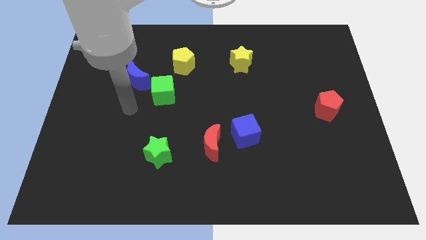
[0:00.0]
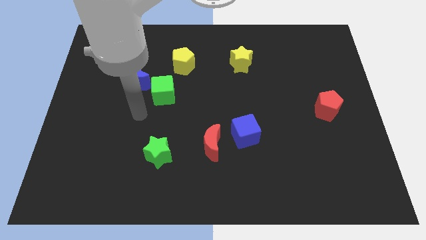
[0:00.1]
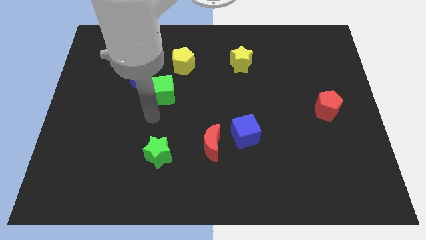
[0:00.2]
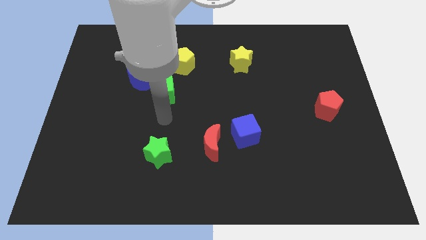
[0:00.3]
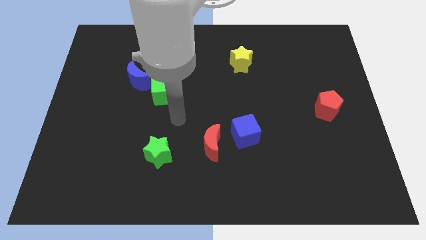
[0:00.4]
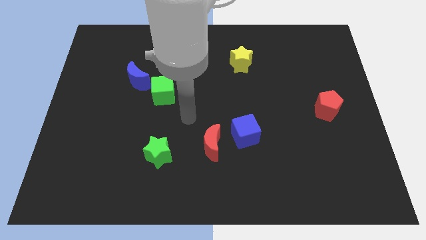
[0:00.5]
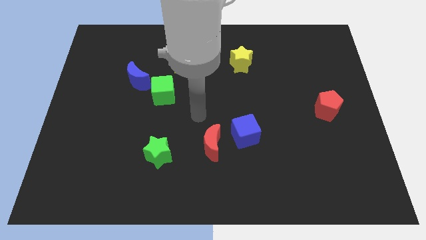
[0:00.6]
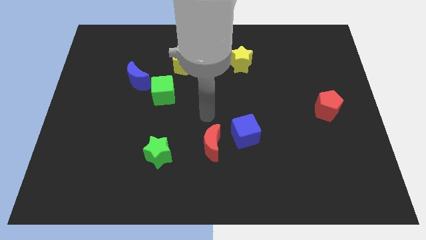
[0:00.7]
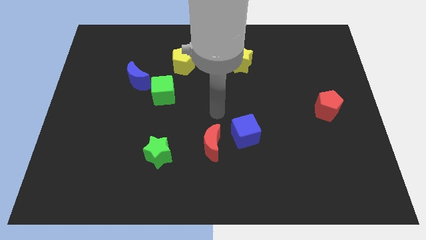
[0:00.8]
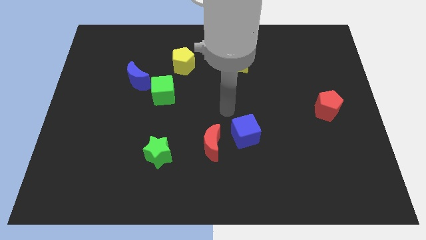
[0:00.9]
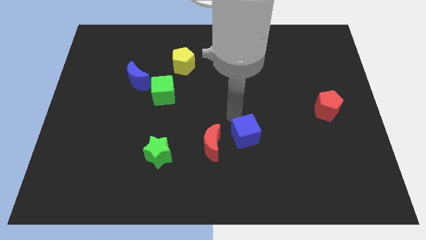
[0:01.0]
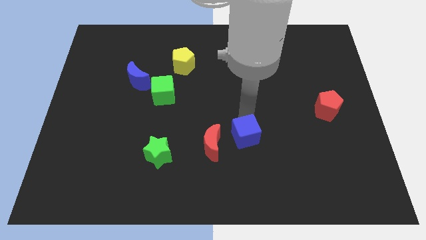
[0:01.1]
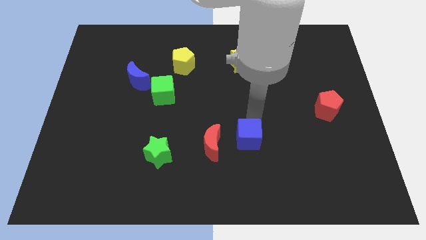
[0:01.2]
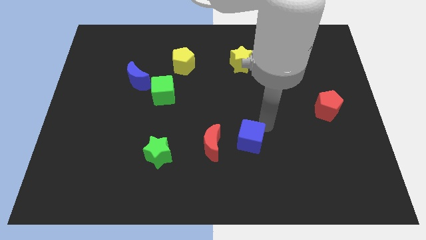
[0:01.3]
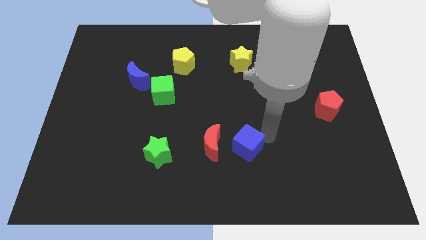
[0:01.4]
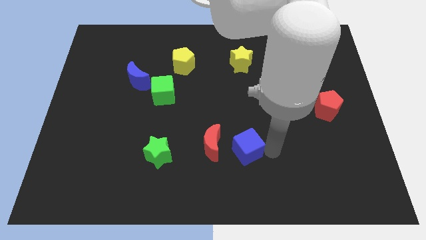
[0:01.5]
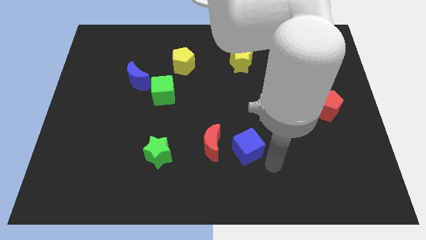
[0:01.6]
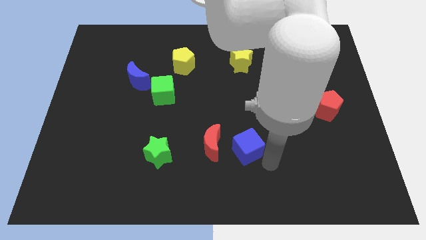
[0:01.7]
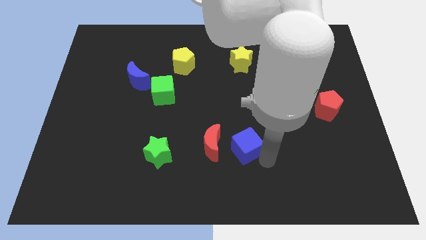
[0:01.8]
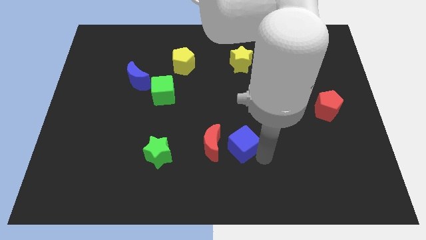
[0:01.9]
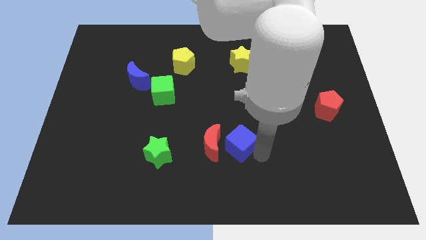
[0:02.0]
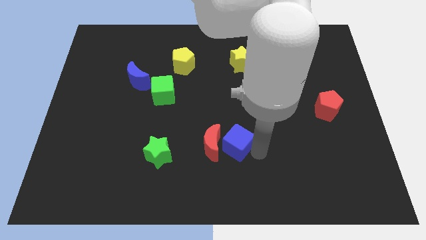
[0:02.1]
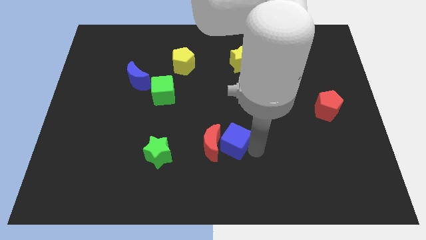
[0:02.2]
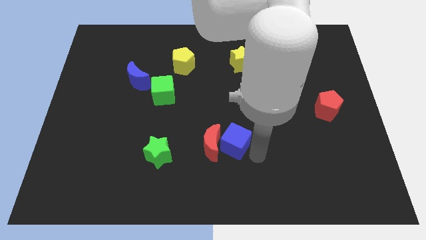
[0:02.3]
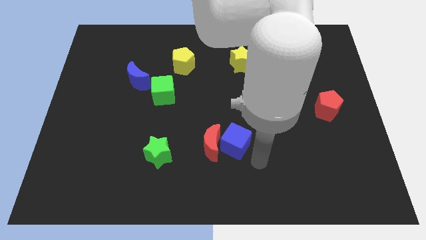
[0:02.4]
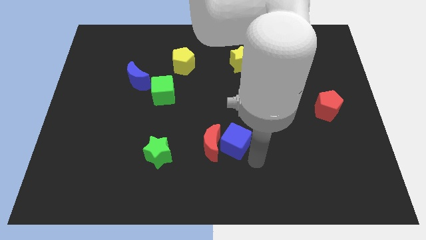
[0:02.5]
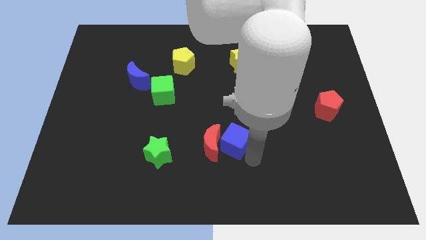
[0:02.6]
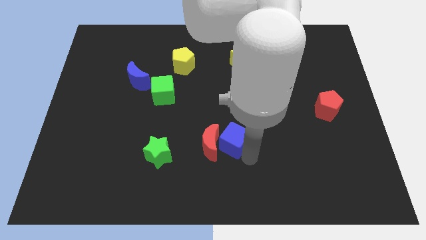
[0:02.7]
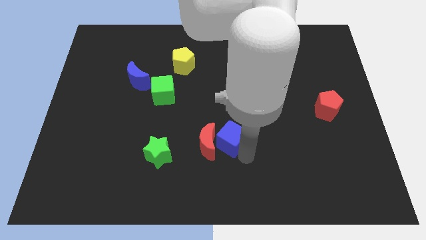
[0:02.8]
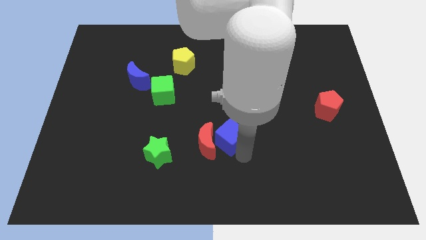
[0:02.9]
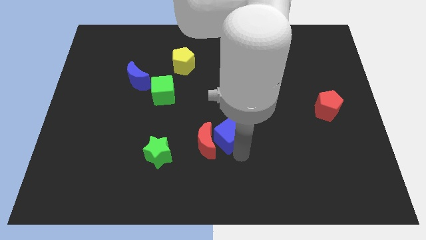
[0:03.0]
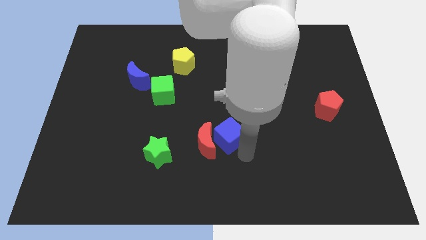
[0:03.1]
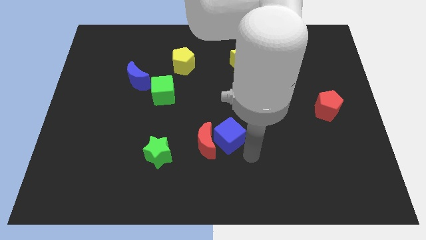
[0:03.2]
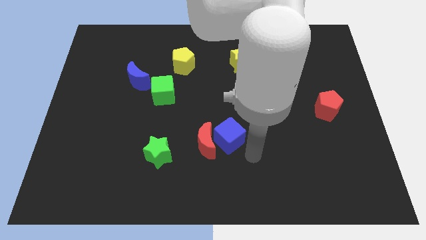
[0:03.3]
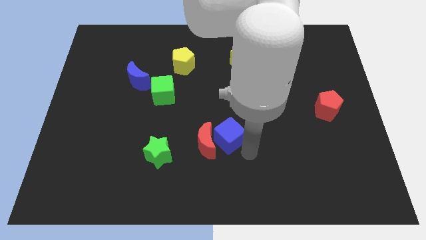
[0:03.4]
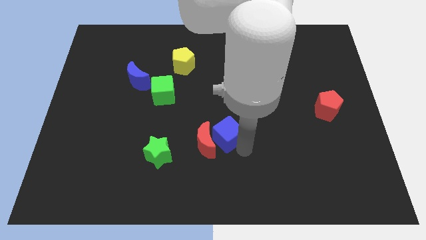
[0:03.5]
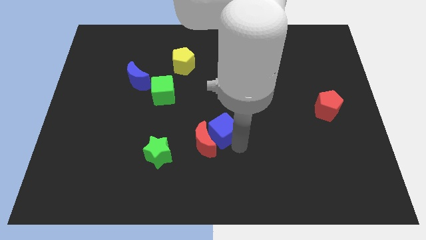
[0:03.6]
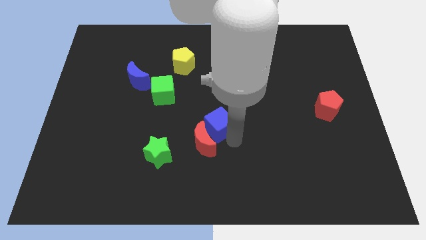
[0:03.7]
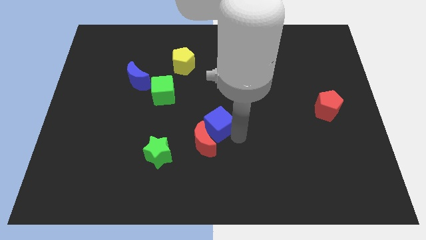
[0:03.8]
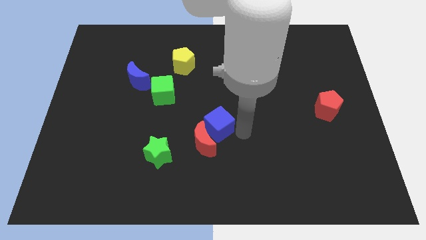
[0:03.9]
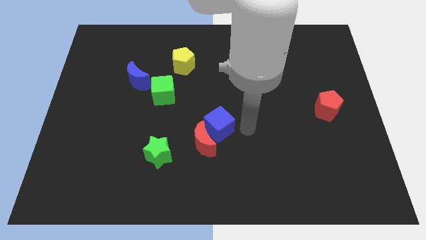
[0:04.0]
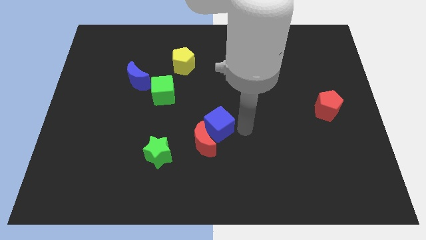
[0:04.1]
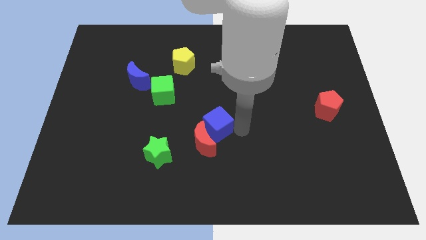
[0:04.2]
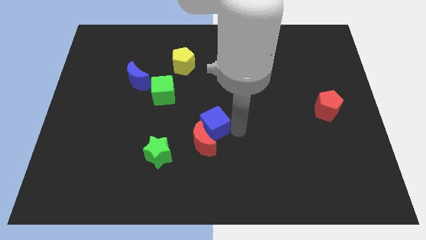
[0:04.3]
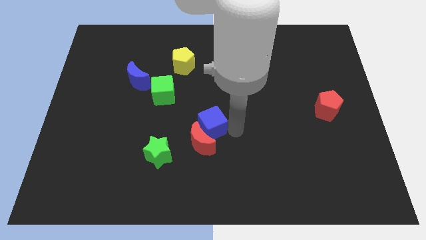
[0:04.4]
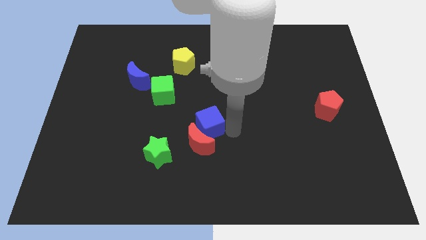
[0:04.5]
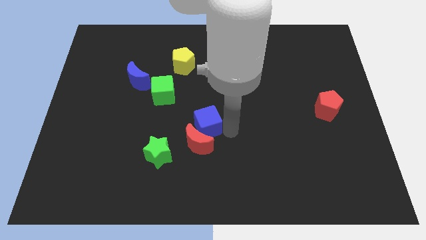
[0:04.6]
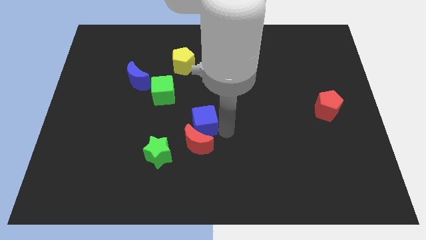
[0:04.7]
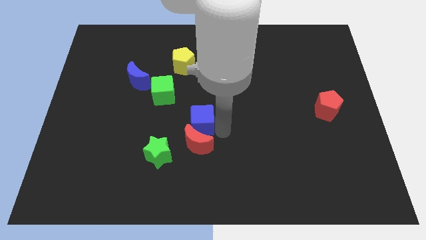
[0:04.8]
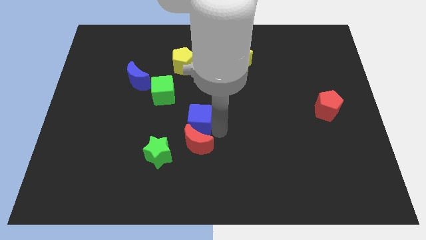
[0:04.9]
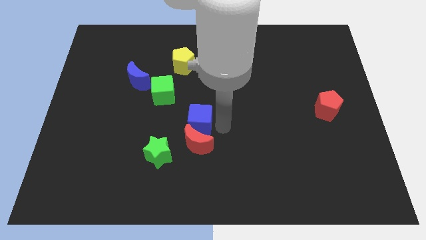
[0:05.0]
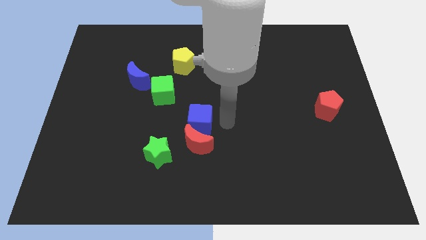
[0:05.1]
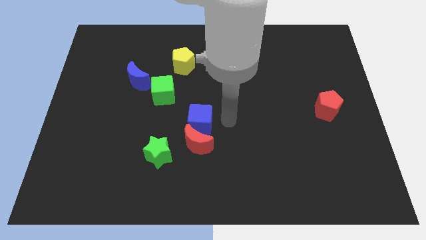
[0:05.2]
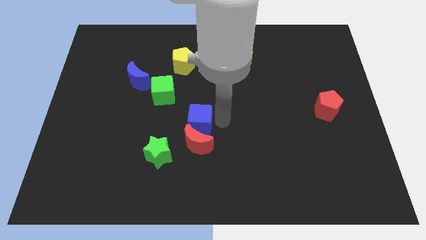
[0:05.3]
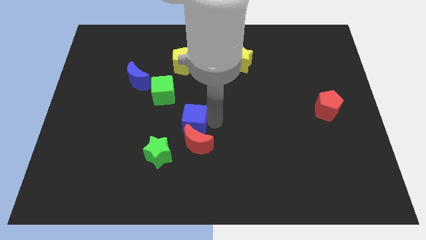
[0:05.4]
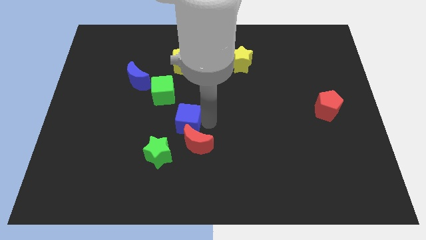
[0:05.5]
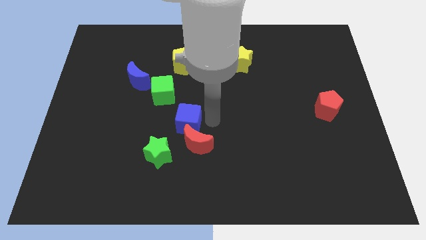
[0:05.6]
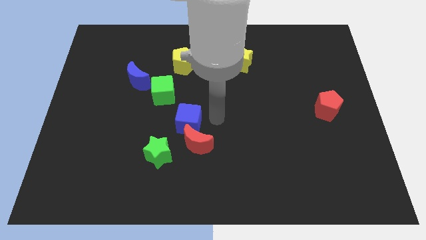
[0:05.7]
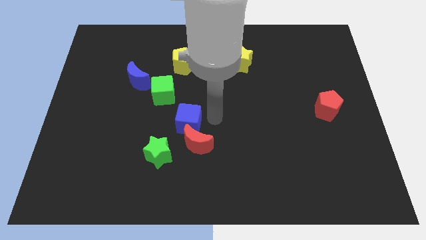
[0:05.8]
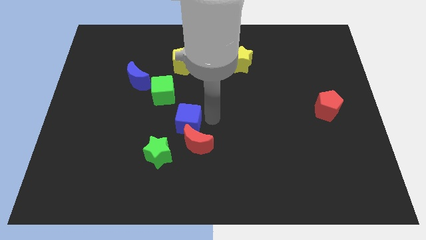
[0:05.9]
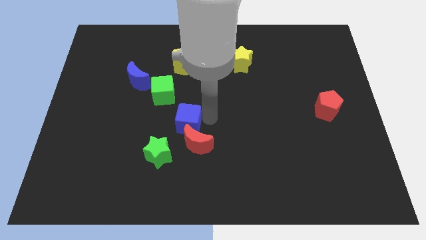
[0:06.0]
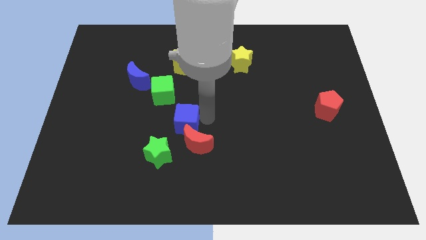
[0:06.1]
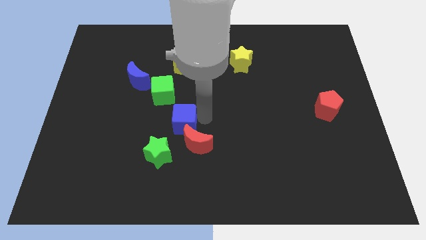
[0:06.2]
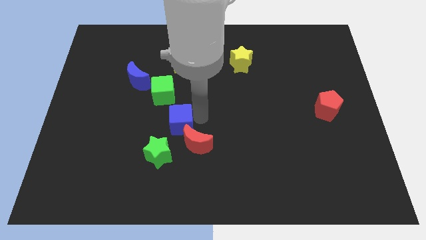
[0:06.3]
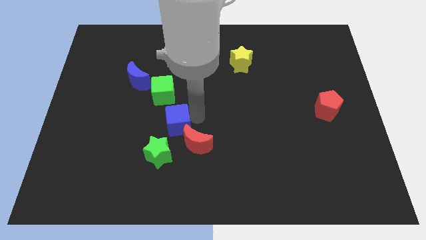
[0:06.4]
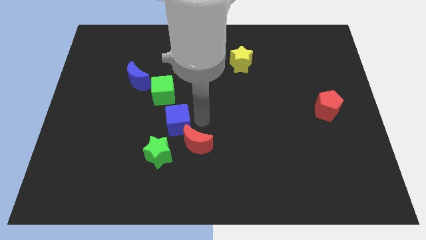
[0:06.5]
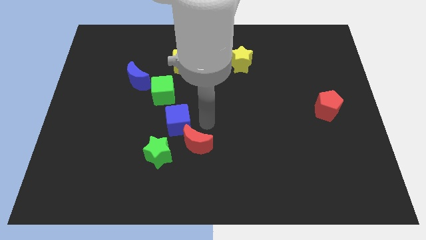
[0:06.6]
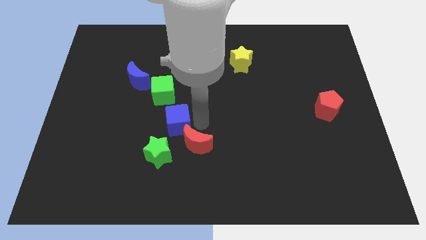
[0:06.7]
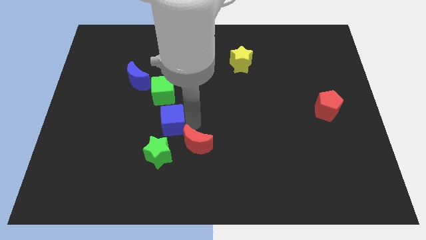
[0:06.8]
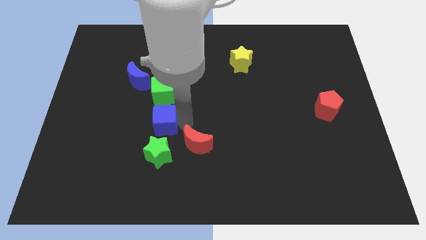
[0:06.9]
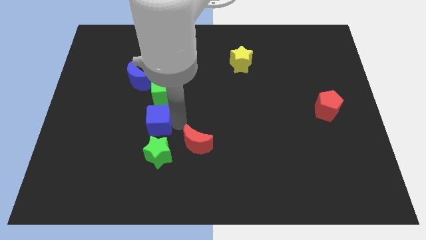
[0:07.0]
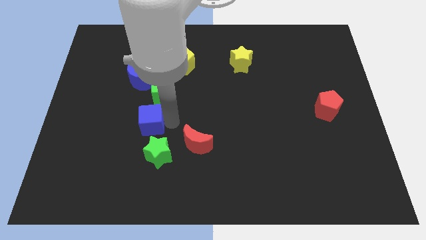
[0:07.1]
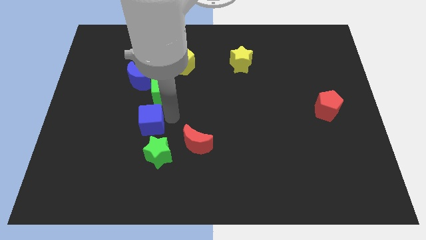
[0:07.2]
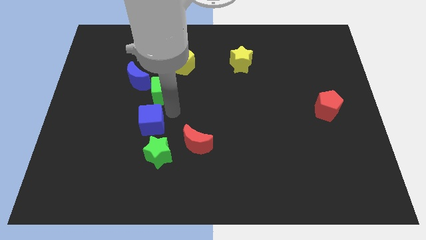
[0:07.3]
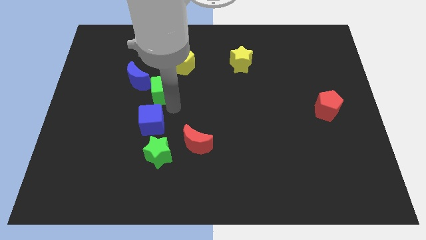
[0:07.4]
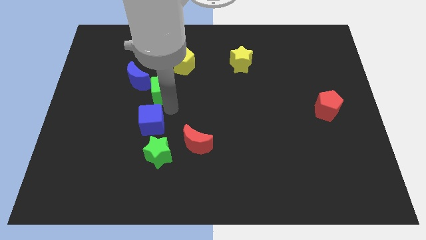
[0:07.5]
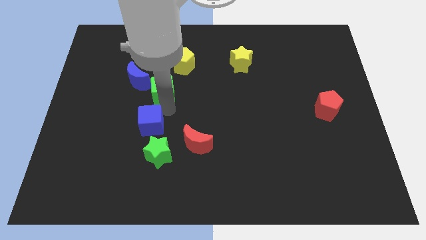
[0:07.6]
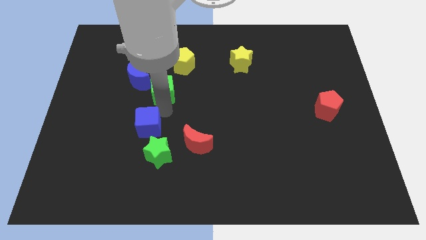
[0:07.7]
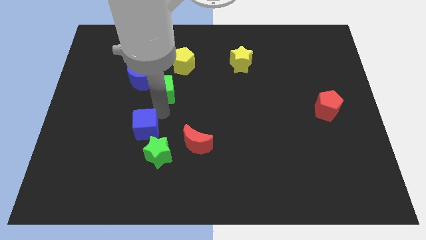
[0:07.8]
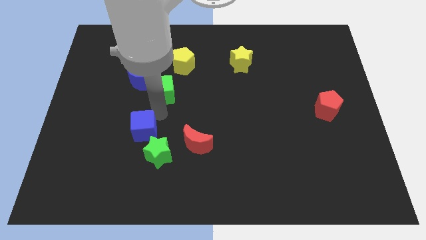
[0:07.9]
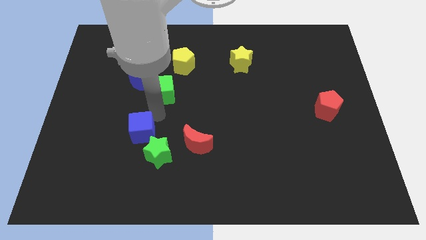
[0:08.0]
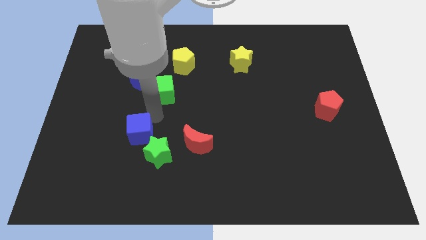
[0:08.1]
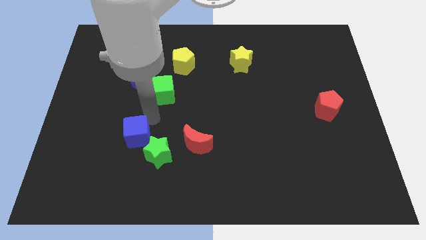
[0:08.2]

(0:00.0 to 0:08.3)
put the blue cube left of the green star
